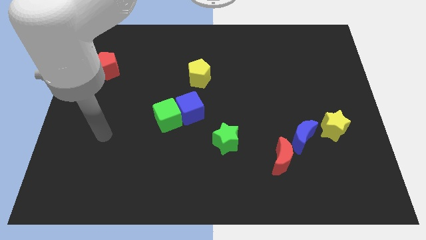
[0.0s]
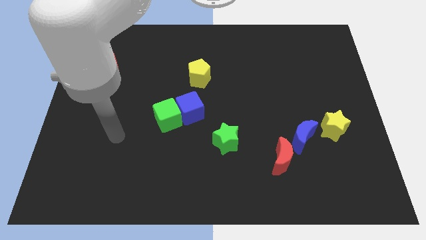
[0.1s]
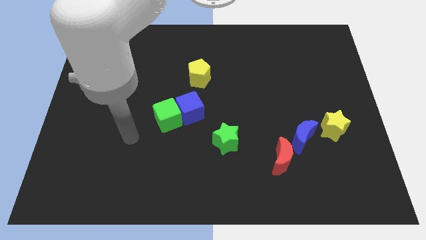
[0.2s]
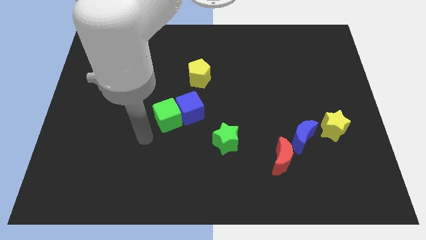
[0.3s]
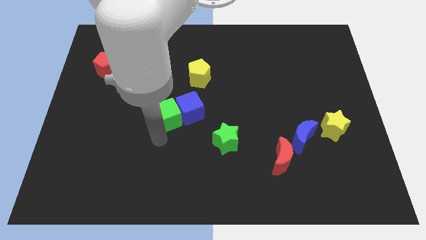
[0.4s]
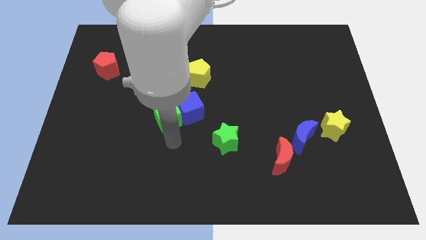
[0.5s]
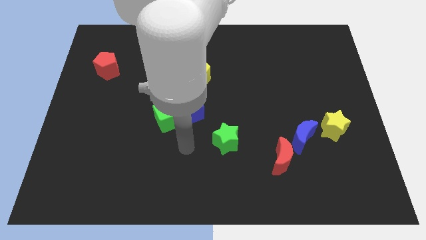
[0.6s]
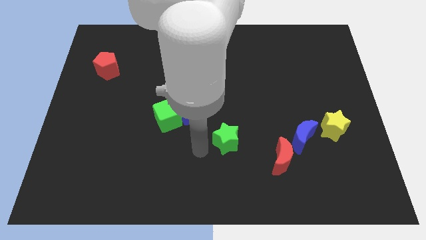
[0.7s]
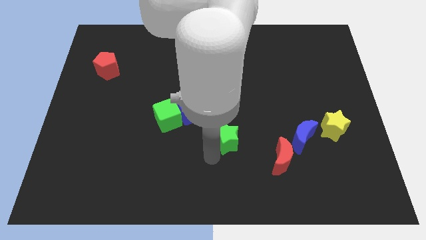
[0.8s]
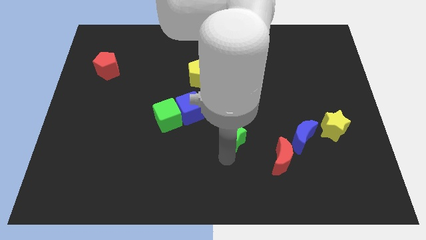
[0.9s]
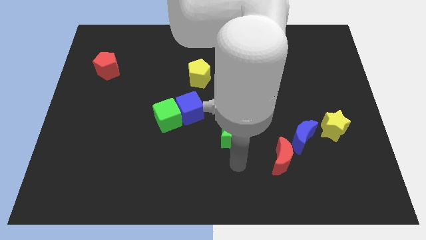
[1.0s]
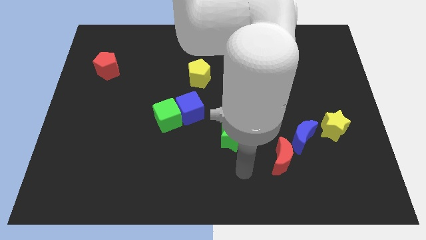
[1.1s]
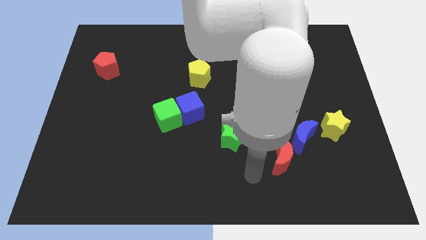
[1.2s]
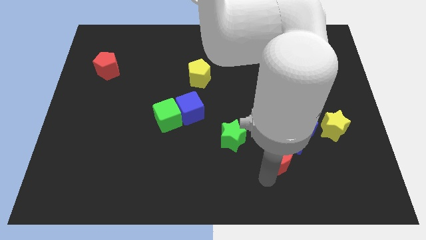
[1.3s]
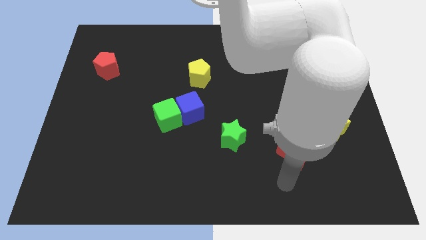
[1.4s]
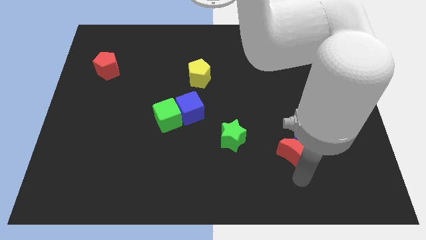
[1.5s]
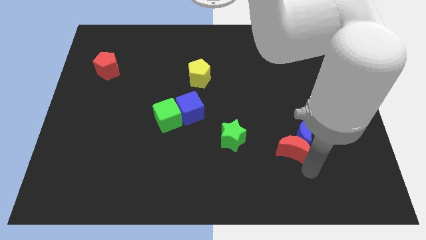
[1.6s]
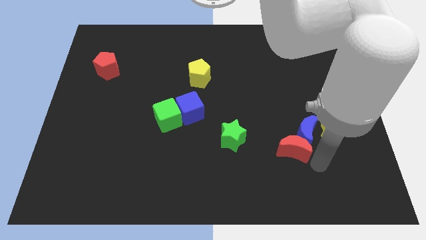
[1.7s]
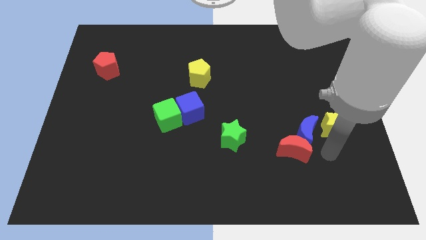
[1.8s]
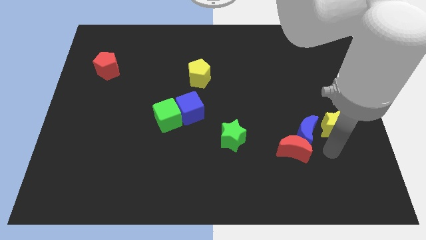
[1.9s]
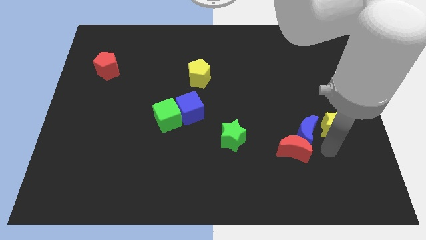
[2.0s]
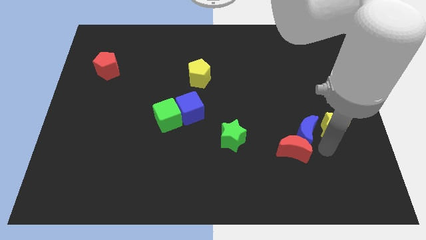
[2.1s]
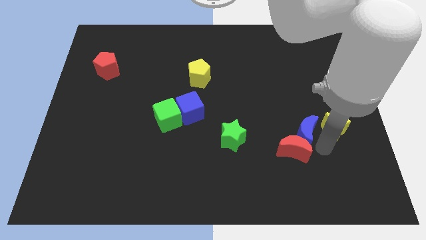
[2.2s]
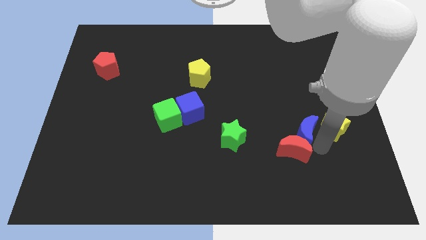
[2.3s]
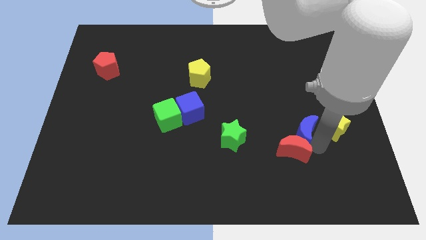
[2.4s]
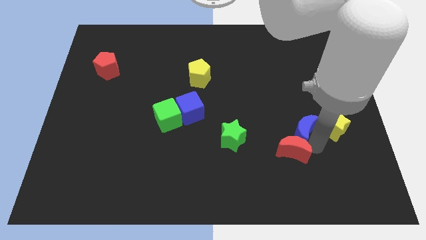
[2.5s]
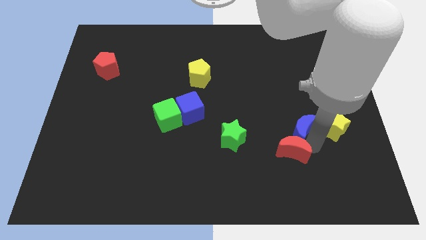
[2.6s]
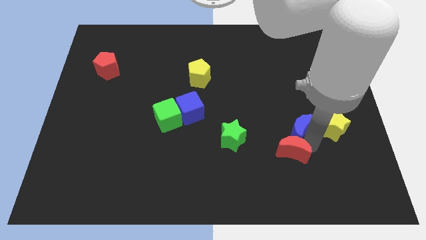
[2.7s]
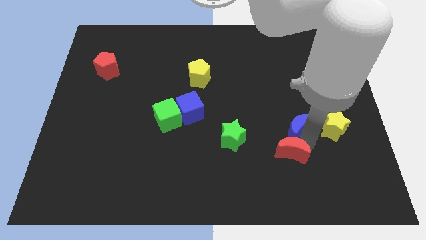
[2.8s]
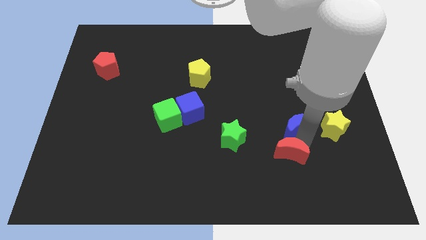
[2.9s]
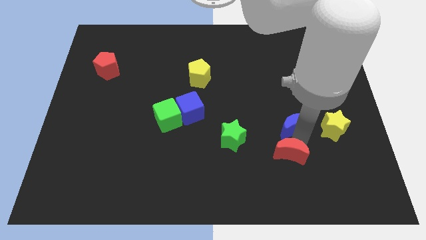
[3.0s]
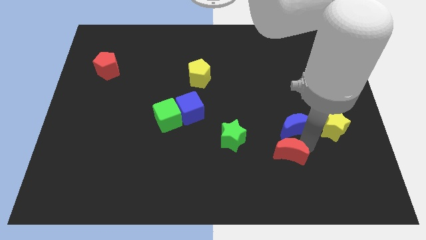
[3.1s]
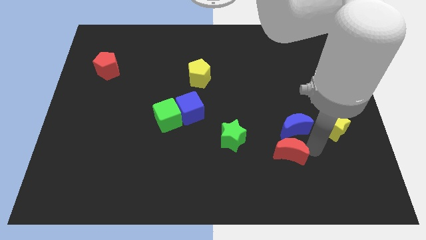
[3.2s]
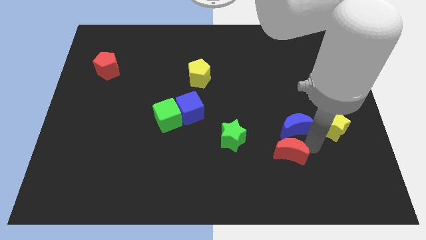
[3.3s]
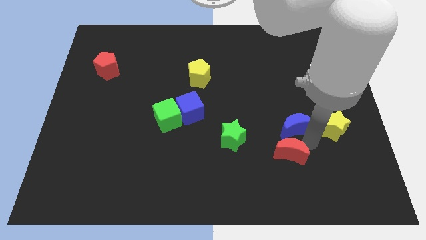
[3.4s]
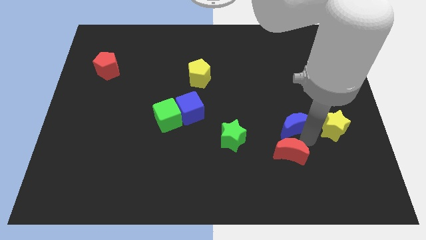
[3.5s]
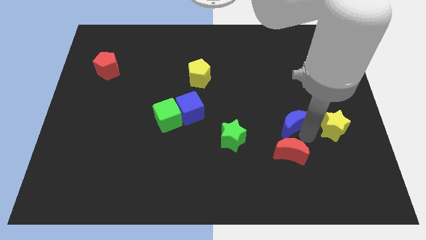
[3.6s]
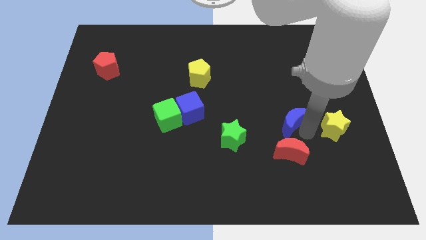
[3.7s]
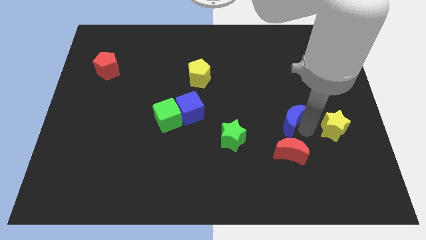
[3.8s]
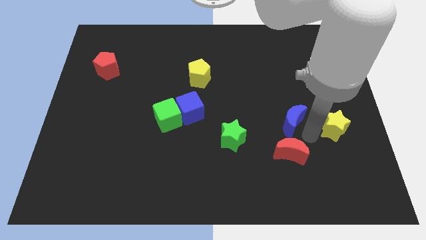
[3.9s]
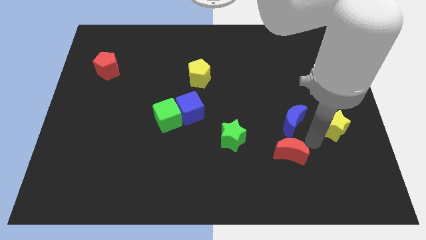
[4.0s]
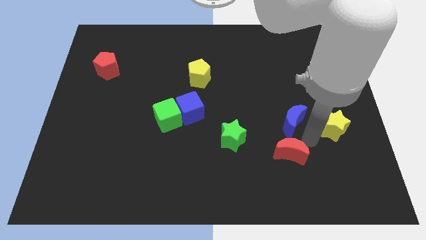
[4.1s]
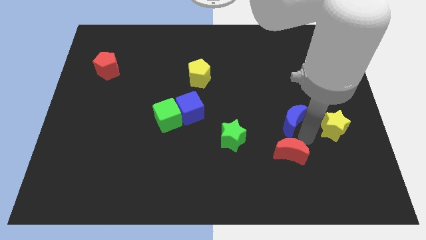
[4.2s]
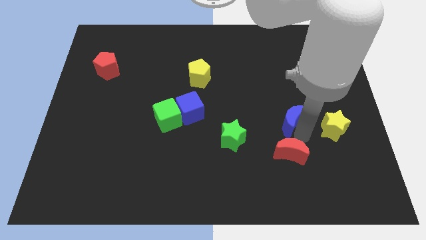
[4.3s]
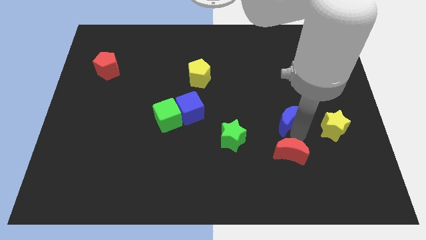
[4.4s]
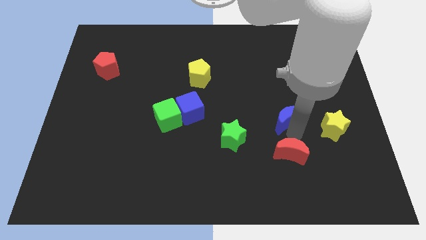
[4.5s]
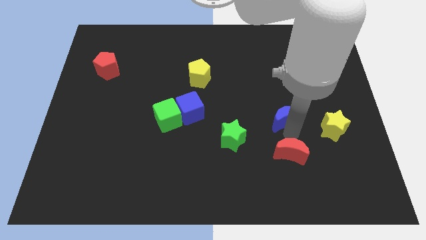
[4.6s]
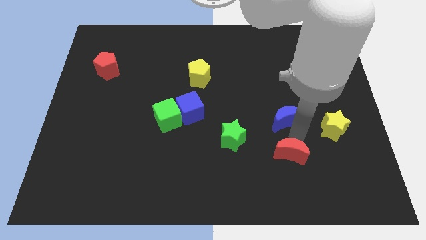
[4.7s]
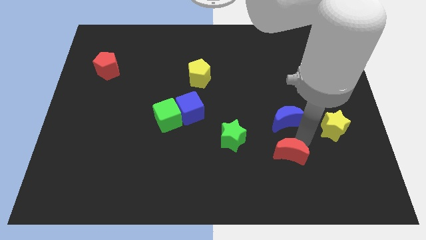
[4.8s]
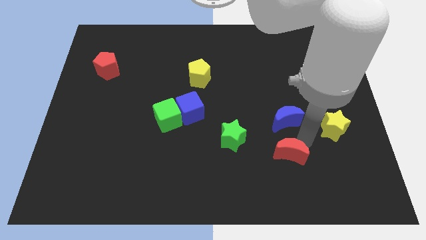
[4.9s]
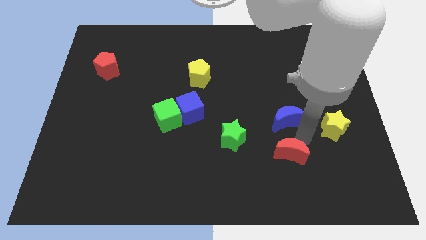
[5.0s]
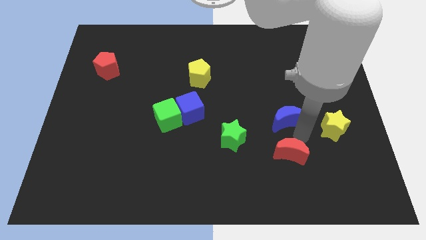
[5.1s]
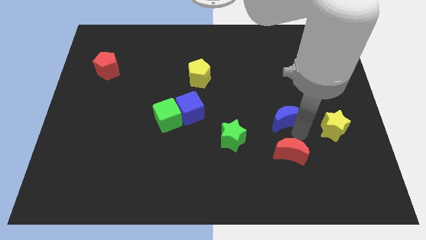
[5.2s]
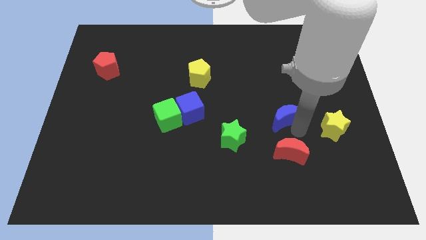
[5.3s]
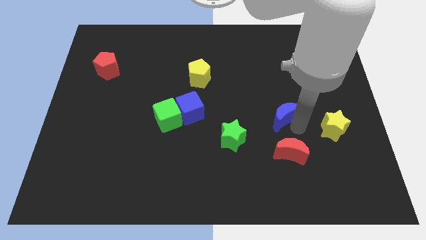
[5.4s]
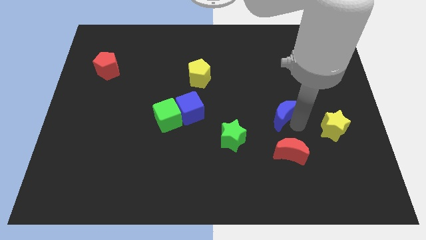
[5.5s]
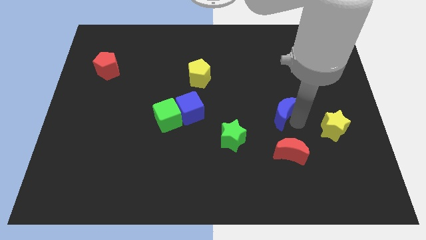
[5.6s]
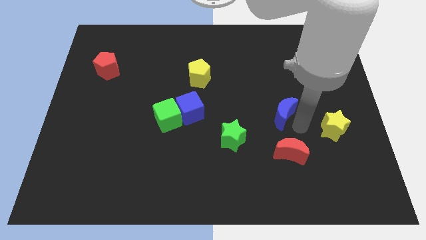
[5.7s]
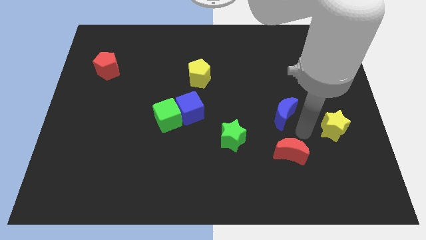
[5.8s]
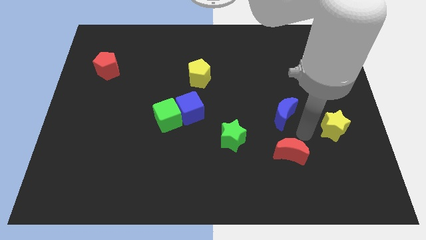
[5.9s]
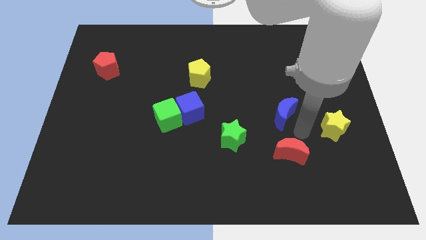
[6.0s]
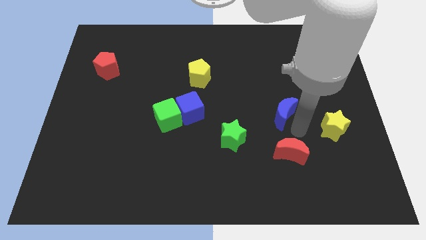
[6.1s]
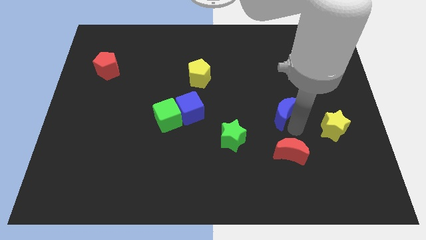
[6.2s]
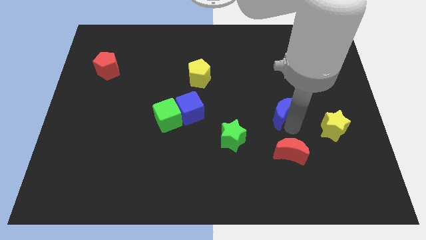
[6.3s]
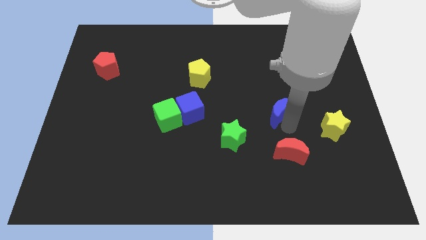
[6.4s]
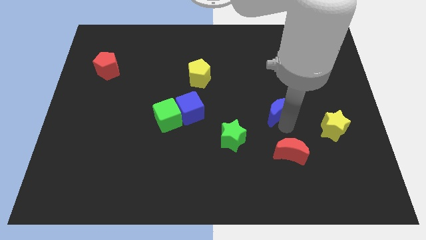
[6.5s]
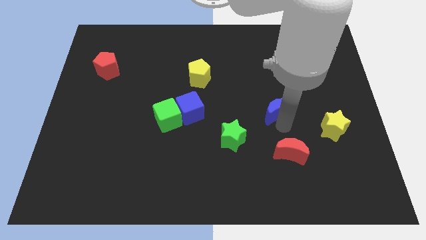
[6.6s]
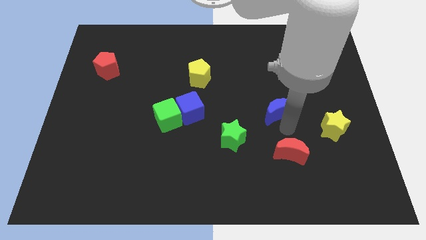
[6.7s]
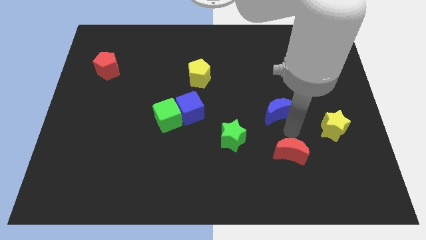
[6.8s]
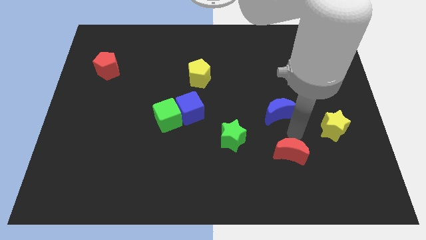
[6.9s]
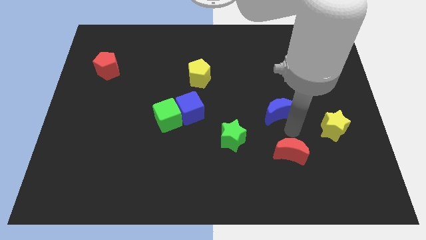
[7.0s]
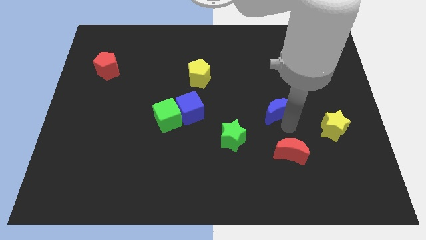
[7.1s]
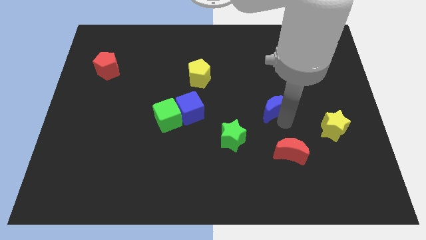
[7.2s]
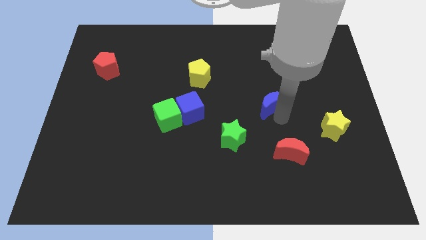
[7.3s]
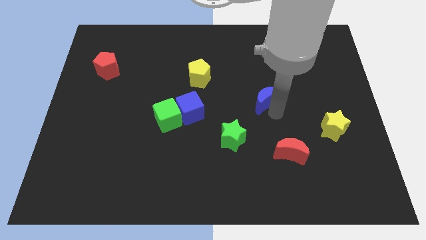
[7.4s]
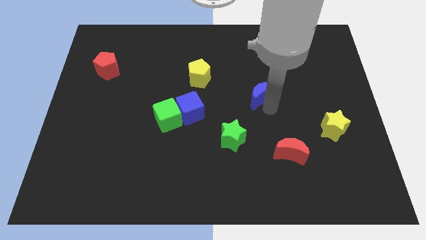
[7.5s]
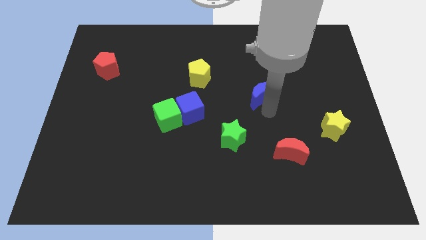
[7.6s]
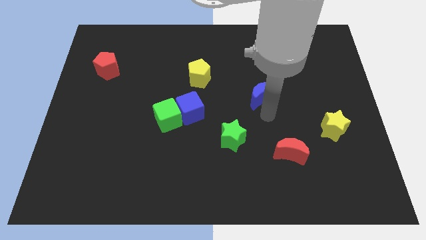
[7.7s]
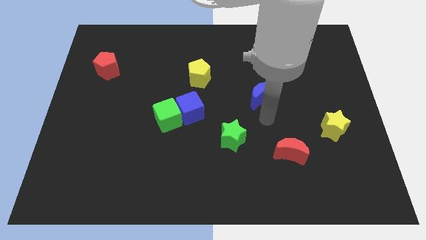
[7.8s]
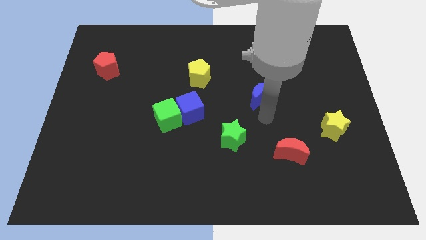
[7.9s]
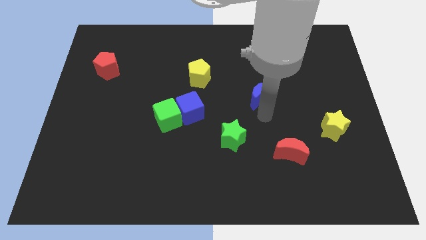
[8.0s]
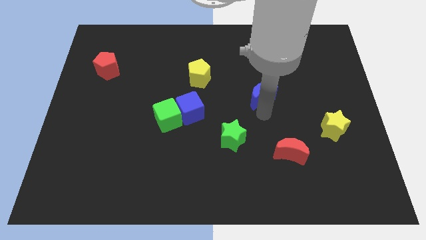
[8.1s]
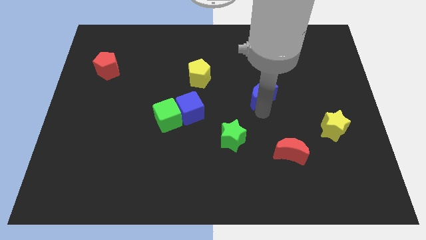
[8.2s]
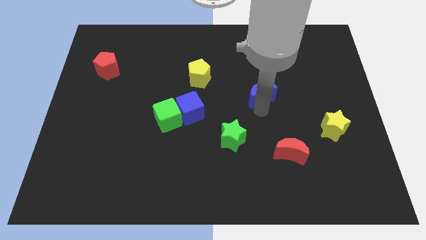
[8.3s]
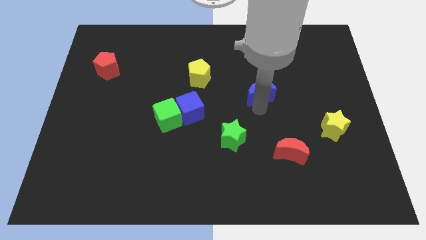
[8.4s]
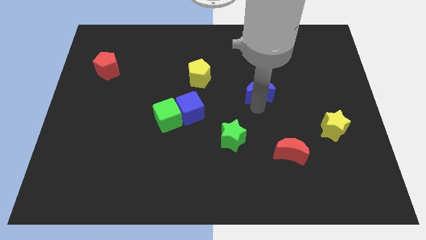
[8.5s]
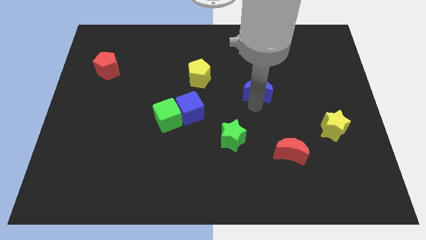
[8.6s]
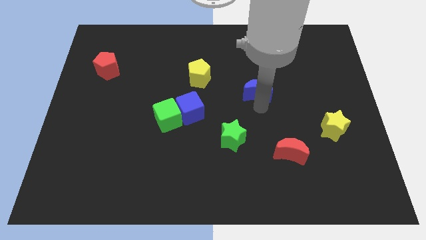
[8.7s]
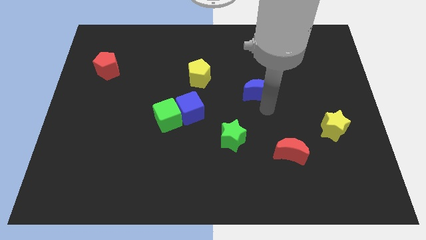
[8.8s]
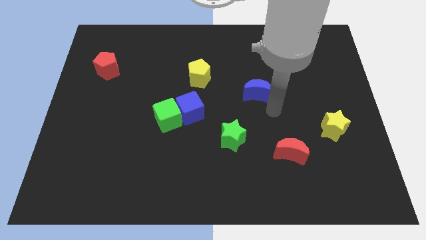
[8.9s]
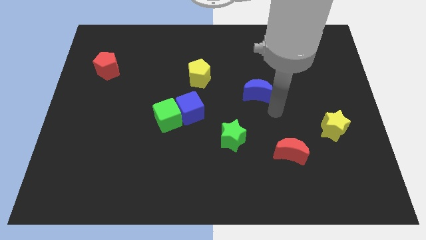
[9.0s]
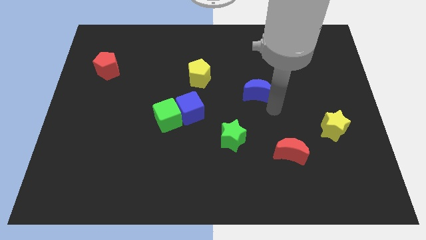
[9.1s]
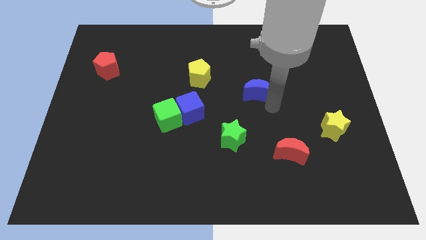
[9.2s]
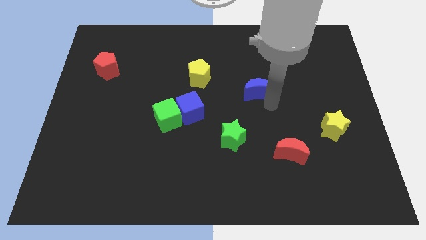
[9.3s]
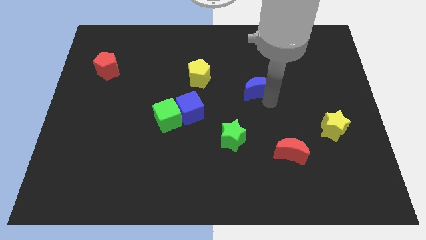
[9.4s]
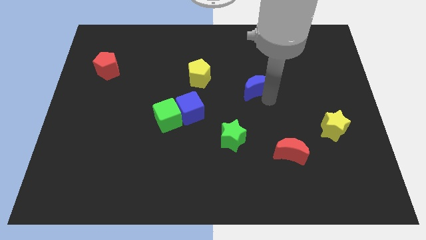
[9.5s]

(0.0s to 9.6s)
push the blue moon just right of the yellow pentagon
